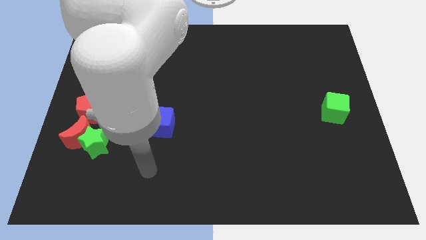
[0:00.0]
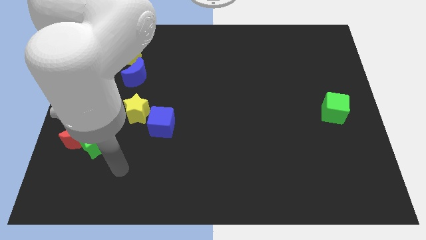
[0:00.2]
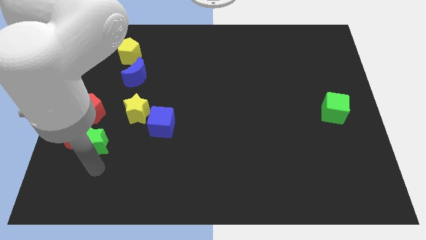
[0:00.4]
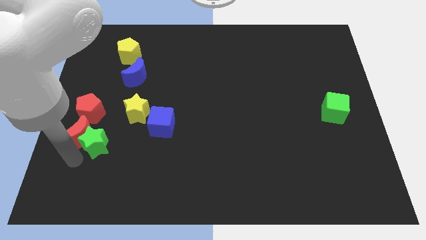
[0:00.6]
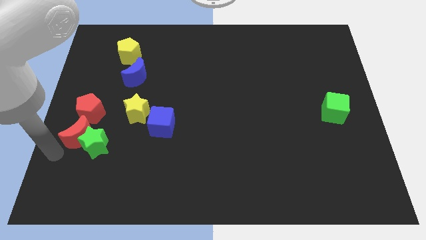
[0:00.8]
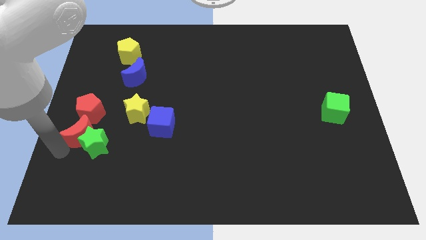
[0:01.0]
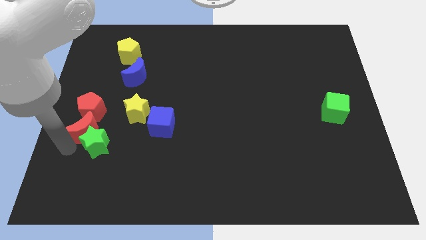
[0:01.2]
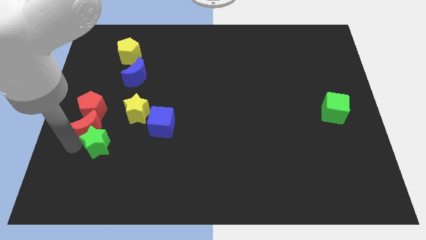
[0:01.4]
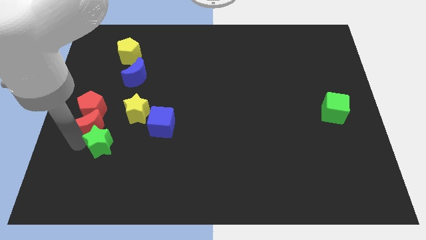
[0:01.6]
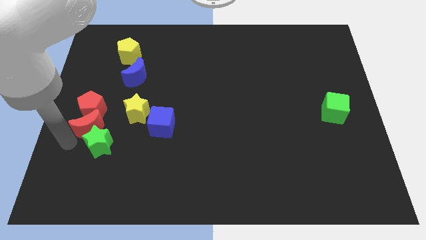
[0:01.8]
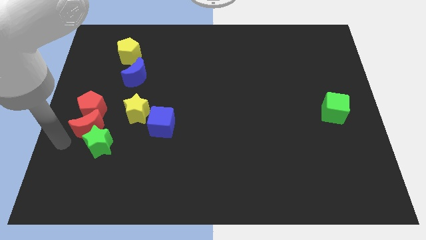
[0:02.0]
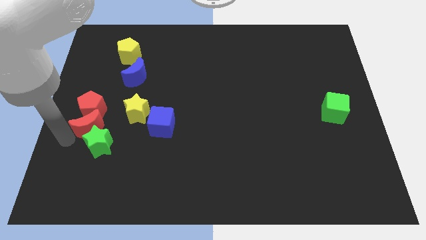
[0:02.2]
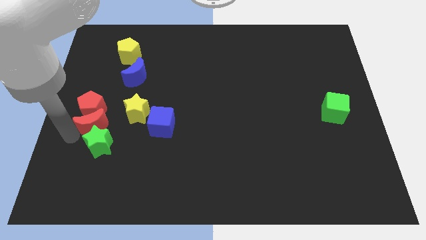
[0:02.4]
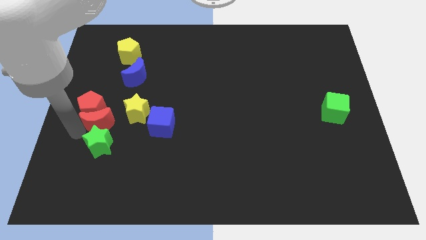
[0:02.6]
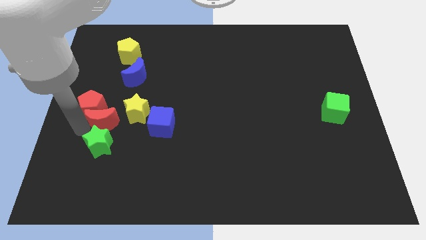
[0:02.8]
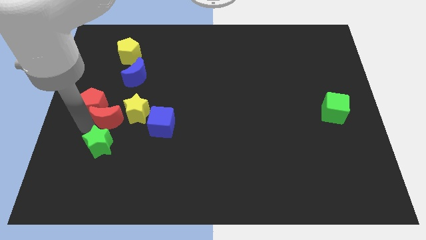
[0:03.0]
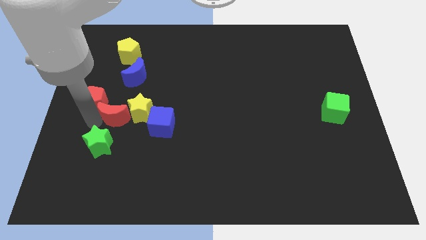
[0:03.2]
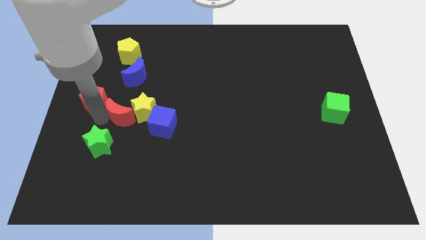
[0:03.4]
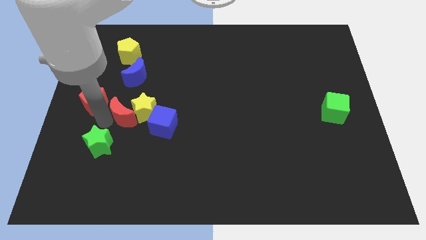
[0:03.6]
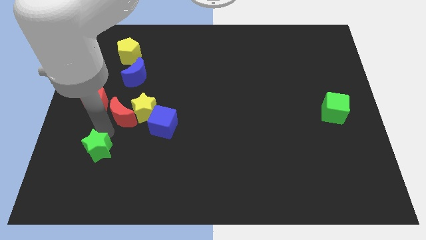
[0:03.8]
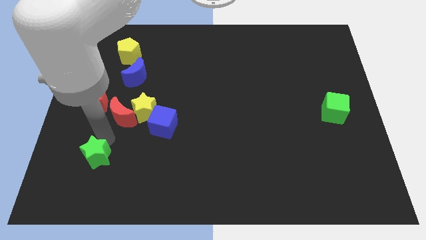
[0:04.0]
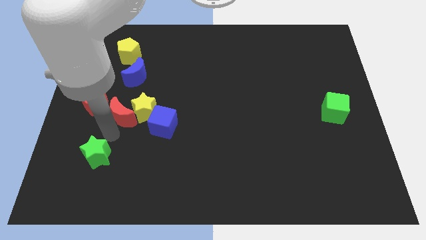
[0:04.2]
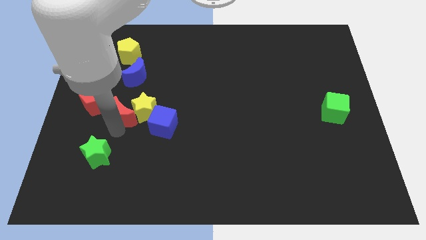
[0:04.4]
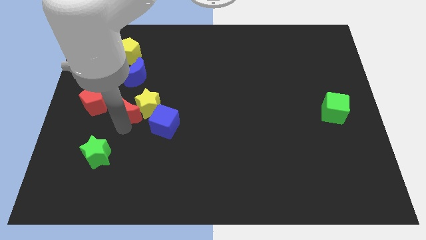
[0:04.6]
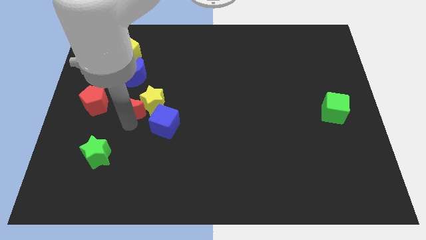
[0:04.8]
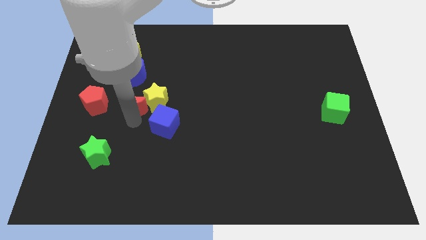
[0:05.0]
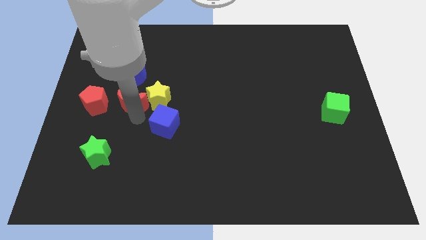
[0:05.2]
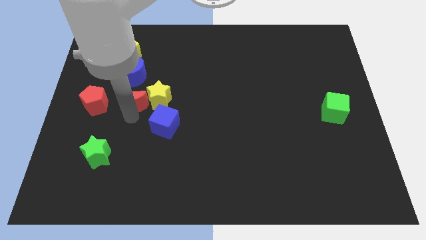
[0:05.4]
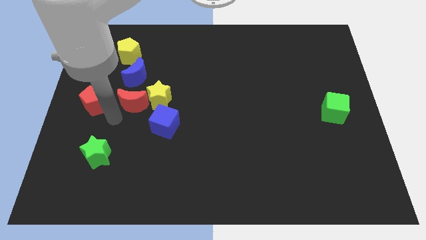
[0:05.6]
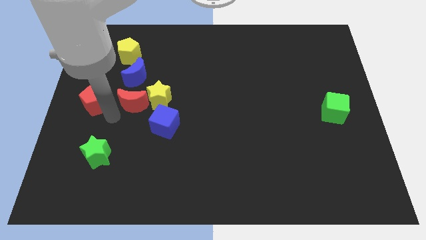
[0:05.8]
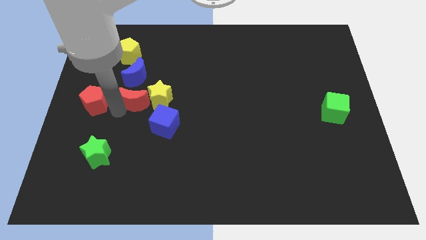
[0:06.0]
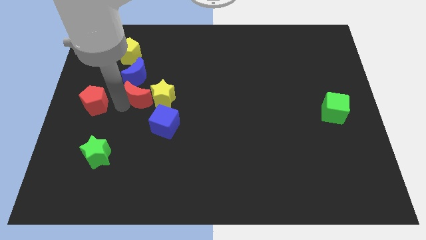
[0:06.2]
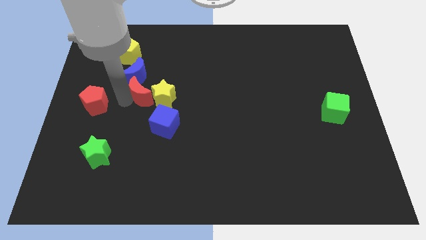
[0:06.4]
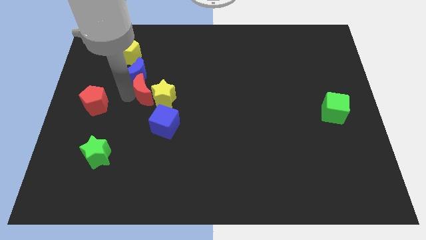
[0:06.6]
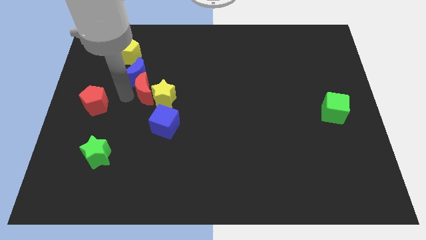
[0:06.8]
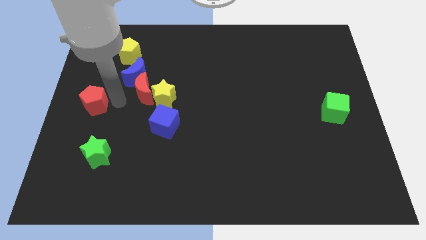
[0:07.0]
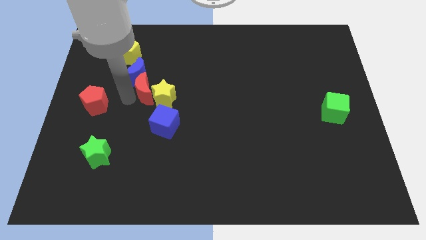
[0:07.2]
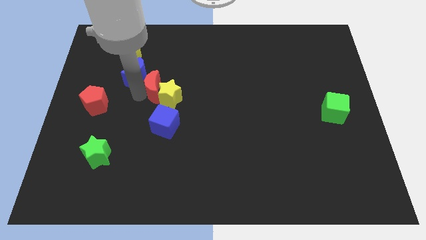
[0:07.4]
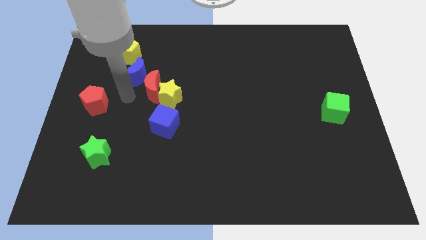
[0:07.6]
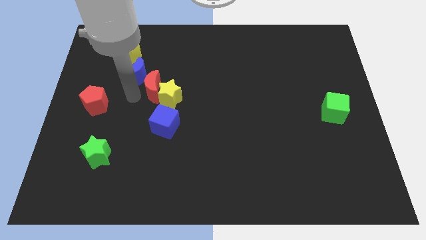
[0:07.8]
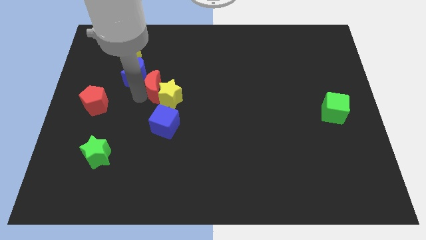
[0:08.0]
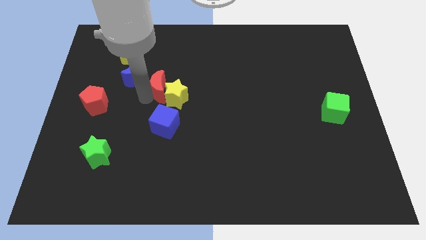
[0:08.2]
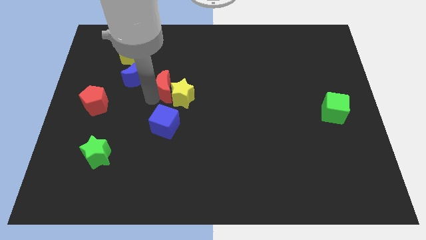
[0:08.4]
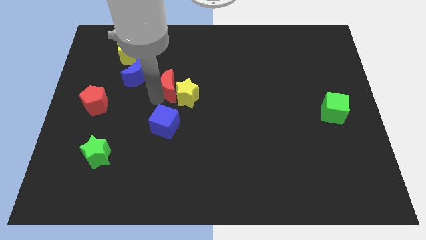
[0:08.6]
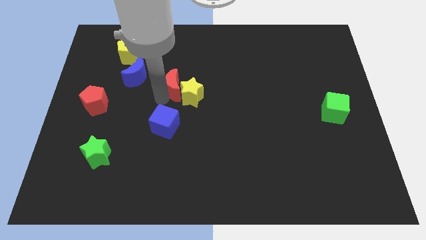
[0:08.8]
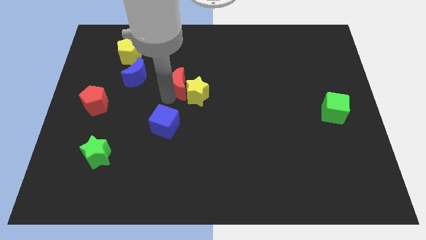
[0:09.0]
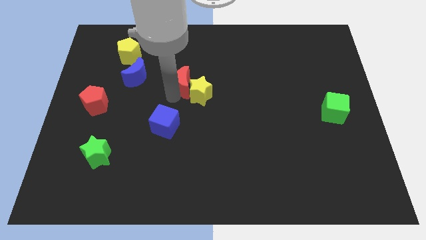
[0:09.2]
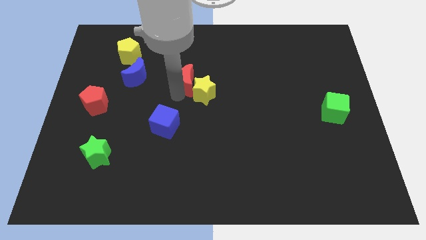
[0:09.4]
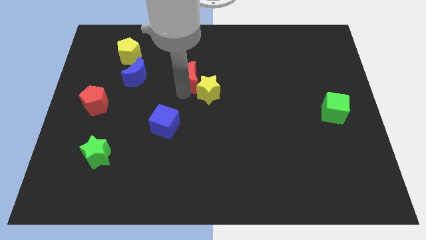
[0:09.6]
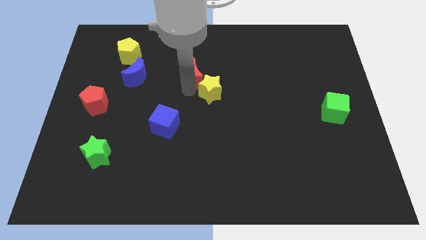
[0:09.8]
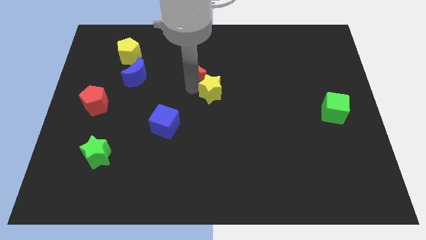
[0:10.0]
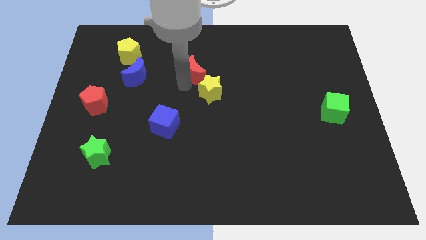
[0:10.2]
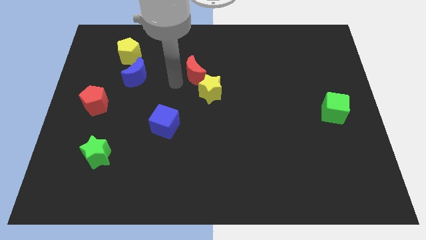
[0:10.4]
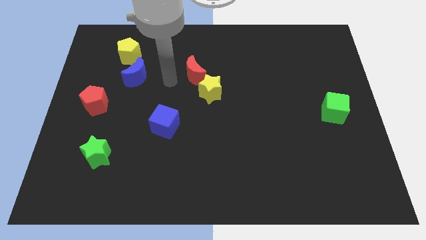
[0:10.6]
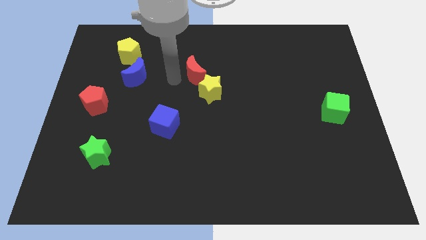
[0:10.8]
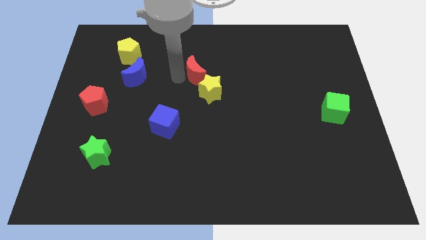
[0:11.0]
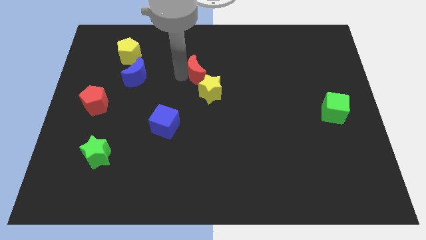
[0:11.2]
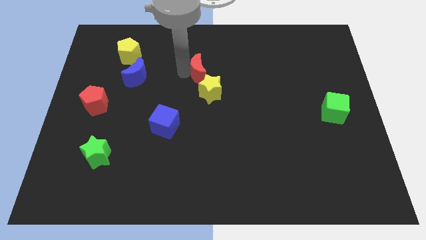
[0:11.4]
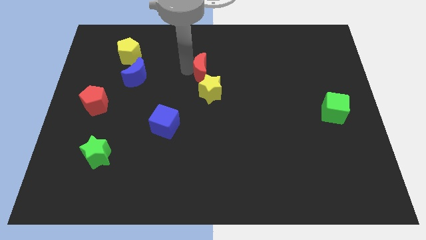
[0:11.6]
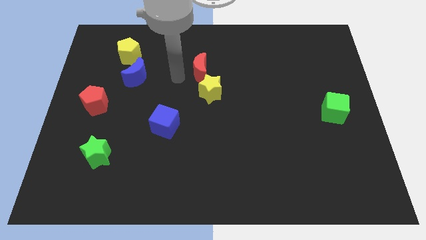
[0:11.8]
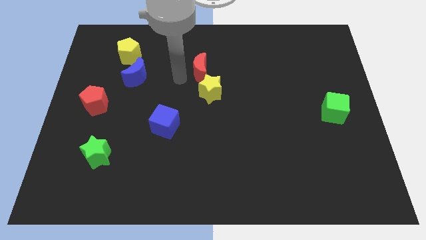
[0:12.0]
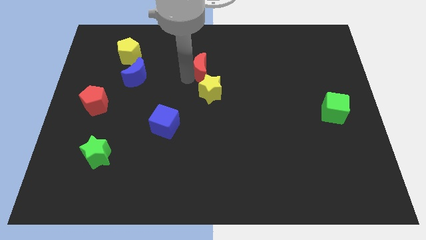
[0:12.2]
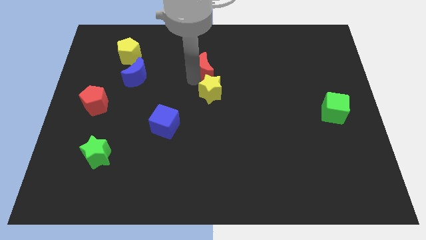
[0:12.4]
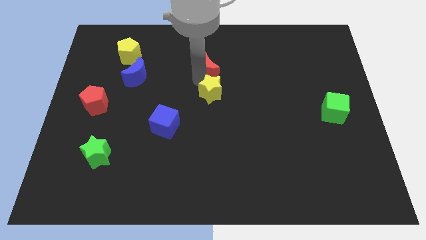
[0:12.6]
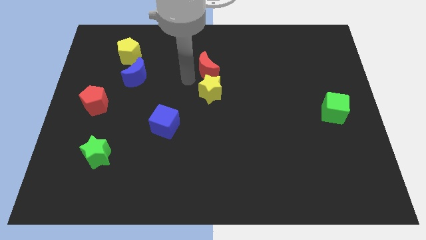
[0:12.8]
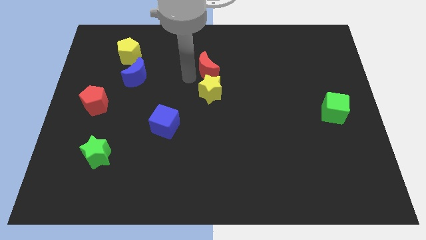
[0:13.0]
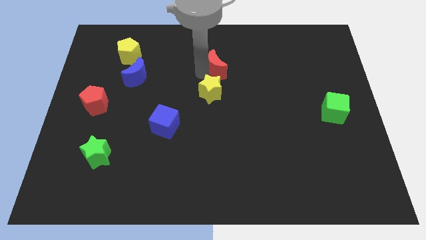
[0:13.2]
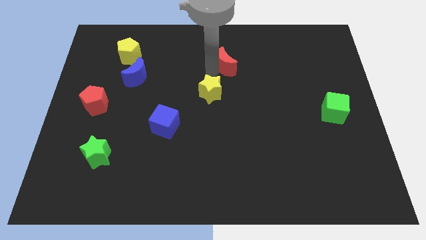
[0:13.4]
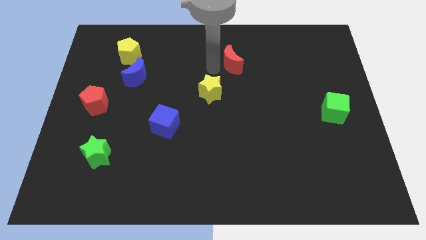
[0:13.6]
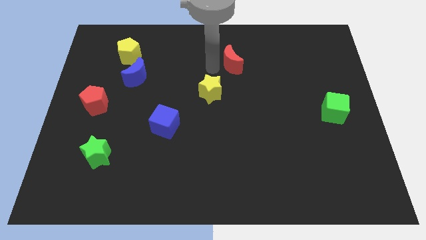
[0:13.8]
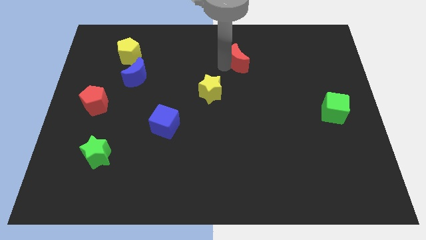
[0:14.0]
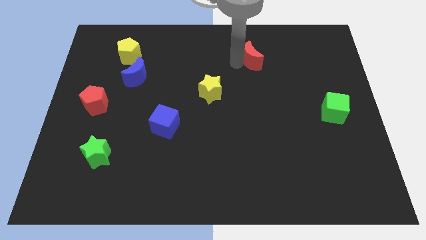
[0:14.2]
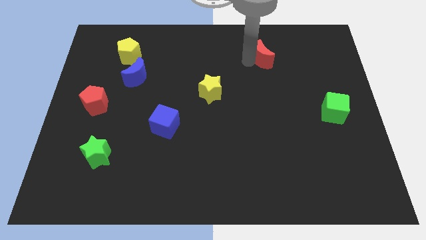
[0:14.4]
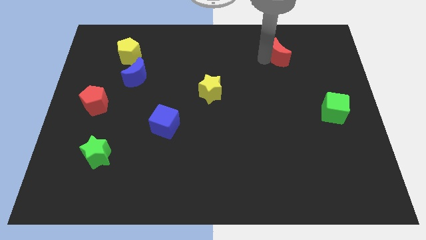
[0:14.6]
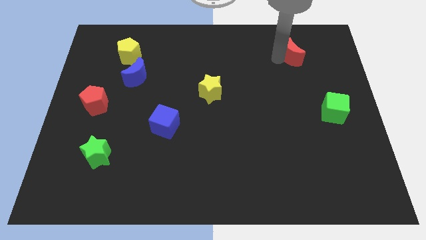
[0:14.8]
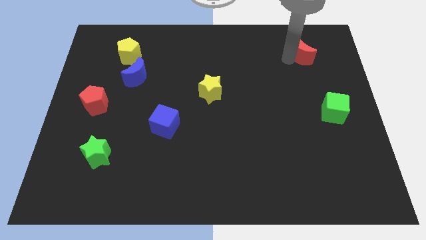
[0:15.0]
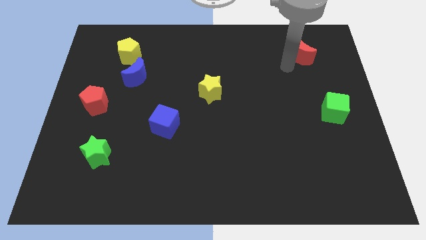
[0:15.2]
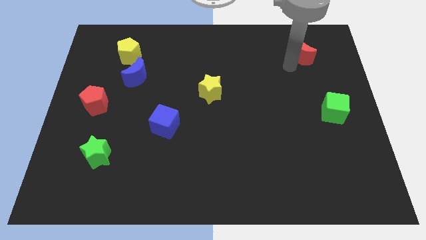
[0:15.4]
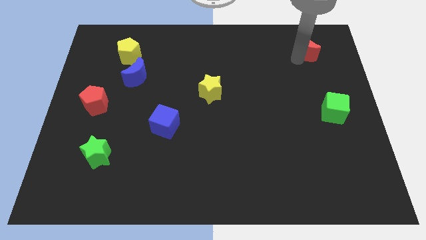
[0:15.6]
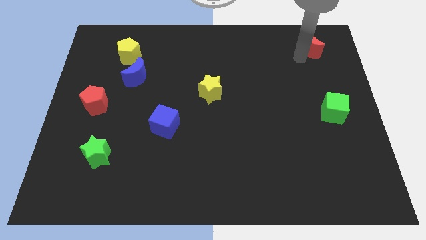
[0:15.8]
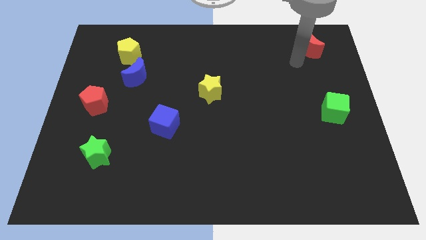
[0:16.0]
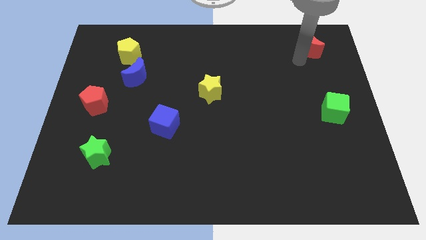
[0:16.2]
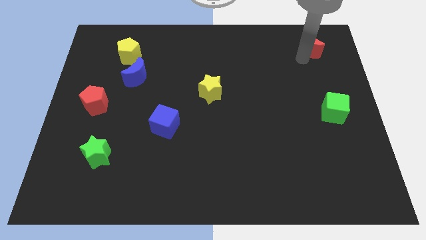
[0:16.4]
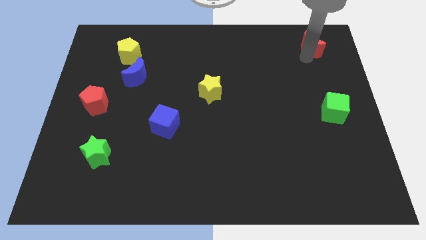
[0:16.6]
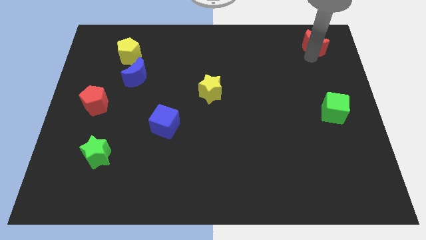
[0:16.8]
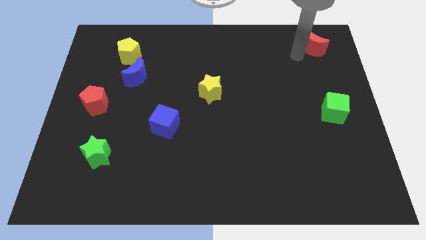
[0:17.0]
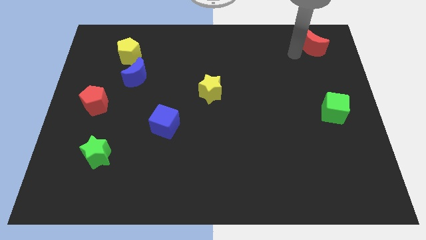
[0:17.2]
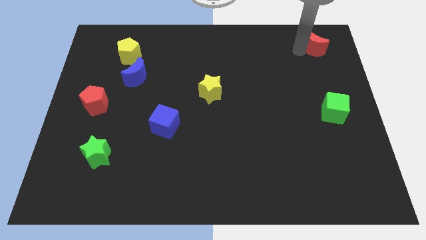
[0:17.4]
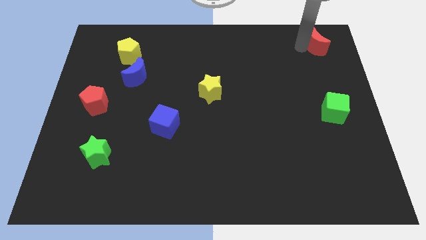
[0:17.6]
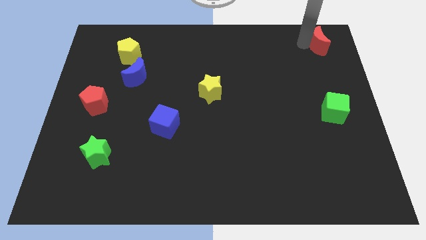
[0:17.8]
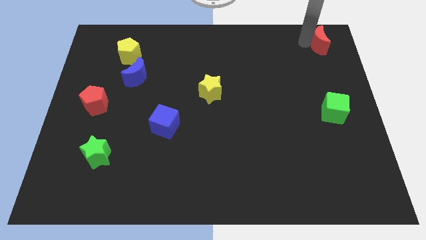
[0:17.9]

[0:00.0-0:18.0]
slide the red moon to the top right corner
